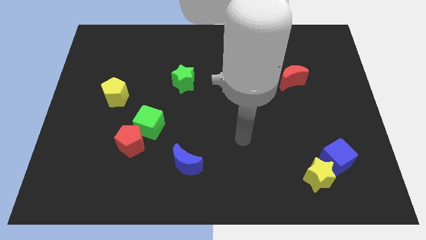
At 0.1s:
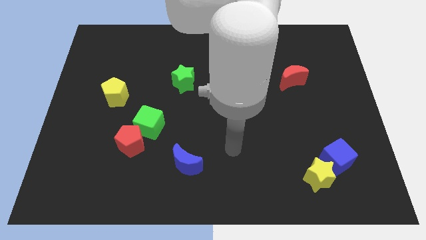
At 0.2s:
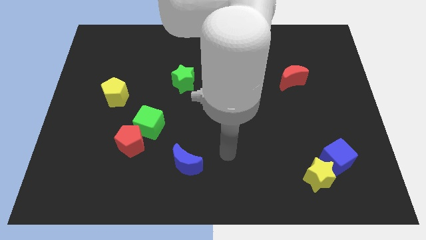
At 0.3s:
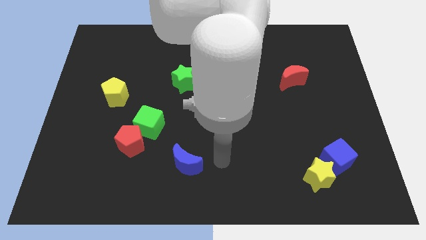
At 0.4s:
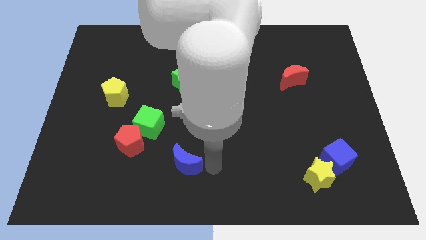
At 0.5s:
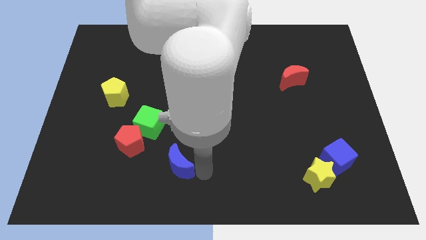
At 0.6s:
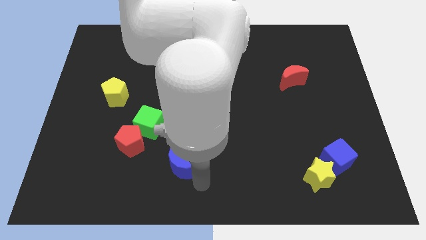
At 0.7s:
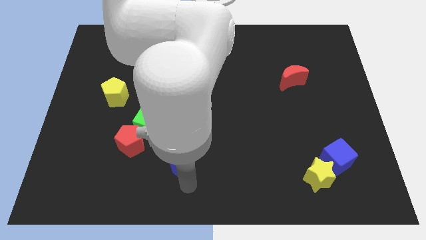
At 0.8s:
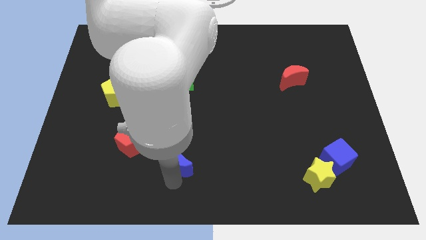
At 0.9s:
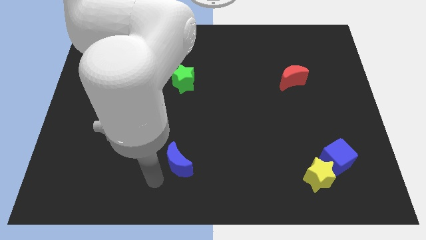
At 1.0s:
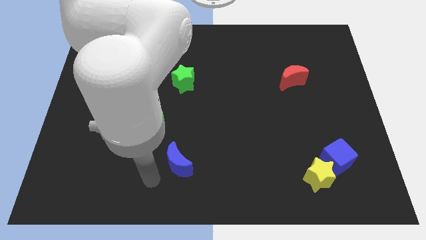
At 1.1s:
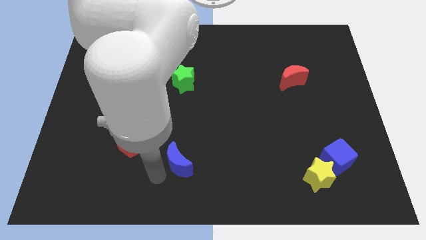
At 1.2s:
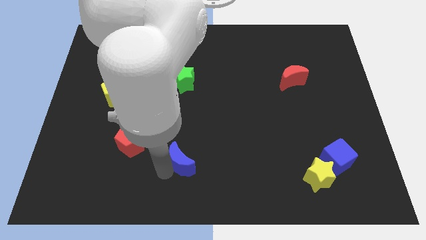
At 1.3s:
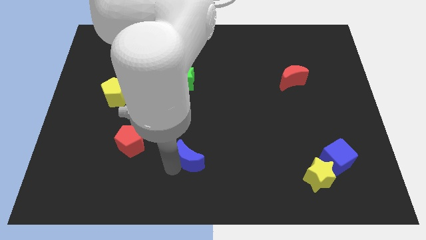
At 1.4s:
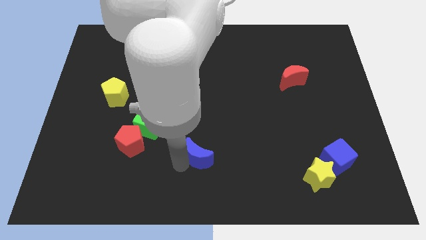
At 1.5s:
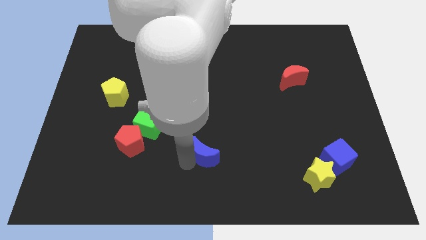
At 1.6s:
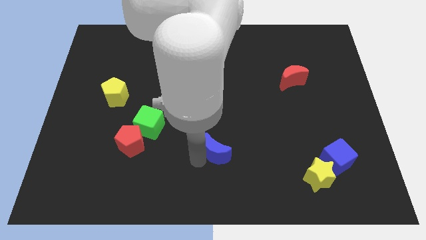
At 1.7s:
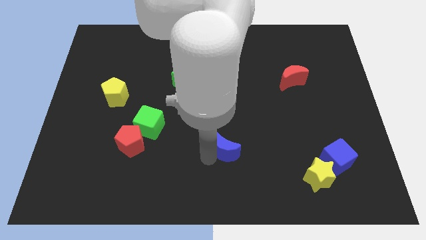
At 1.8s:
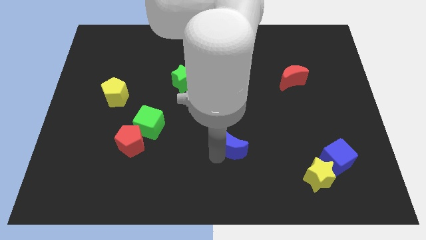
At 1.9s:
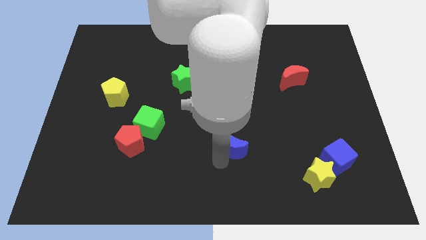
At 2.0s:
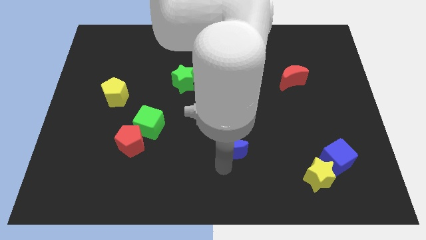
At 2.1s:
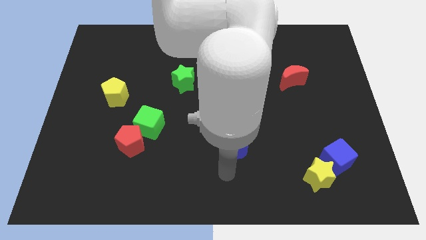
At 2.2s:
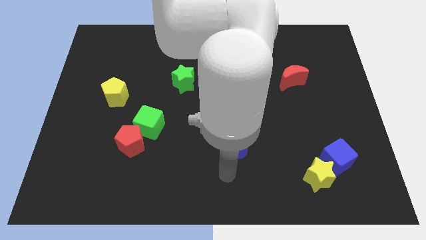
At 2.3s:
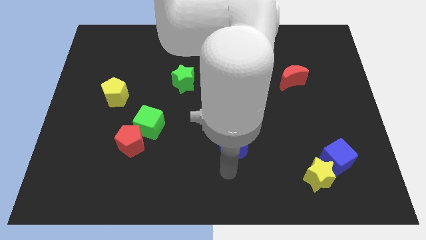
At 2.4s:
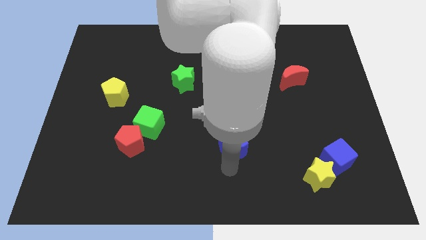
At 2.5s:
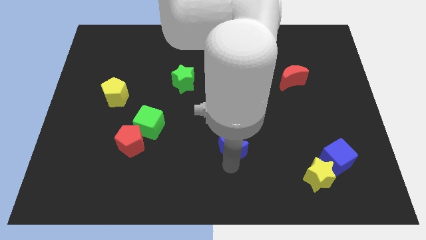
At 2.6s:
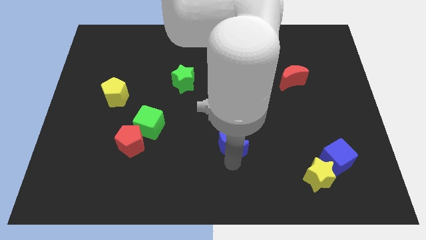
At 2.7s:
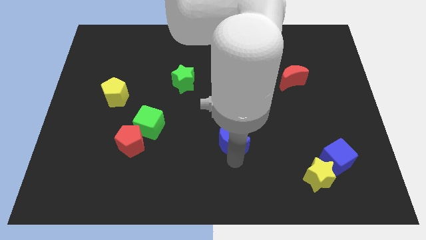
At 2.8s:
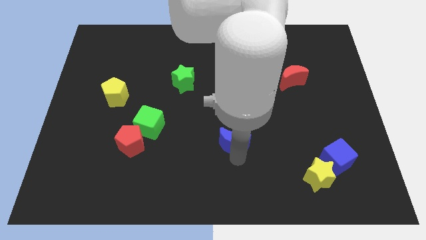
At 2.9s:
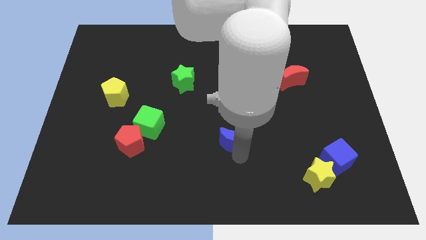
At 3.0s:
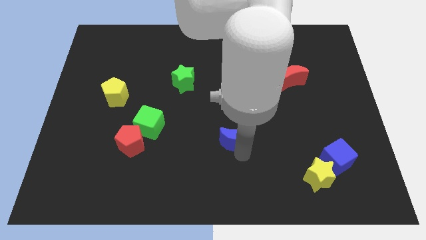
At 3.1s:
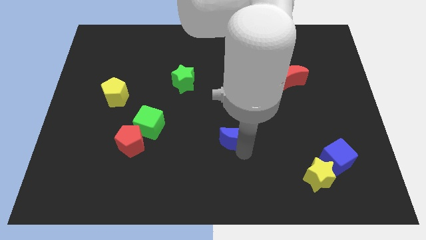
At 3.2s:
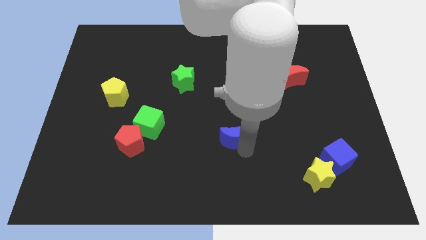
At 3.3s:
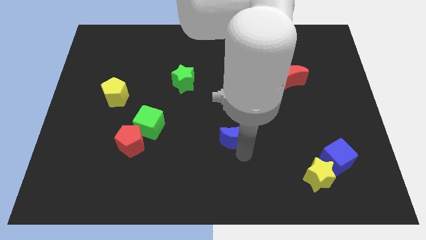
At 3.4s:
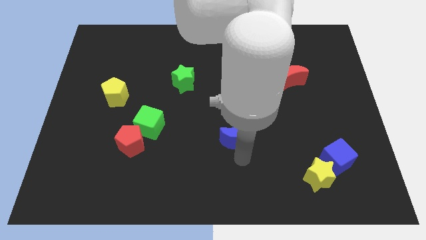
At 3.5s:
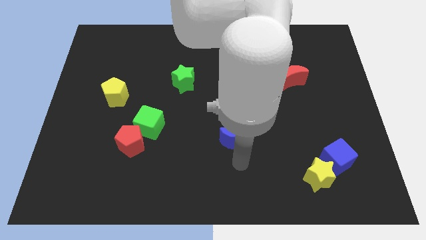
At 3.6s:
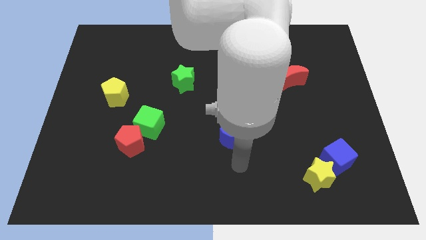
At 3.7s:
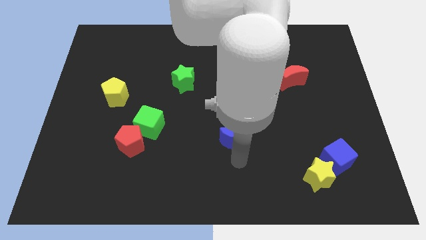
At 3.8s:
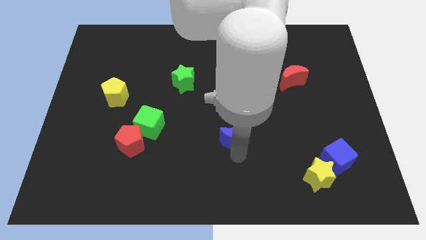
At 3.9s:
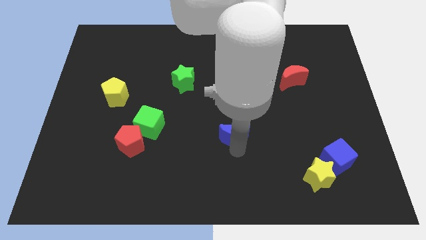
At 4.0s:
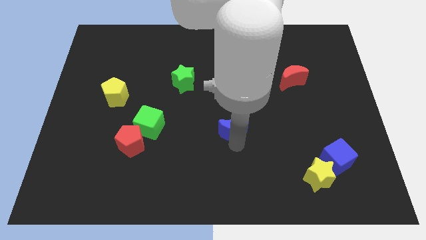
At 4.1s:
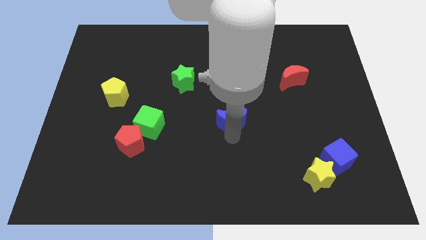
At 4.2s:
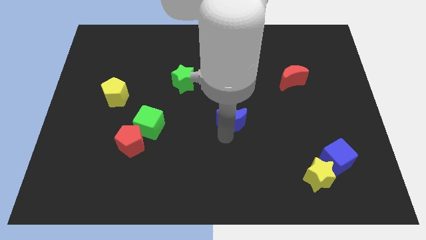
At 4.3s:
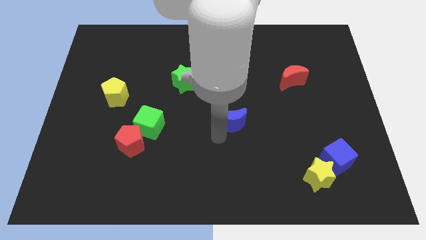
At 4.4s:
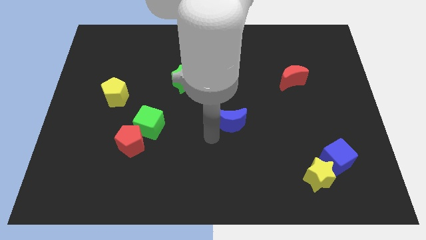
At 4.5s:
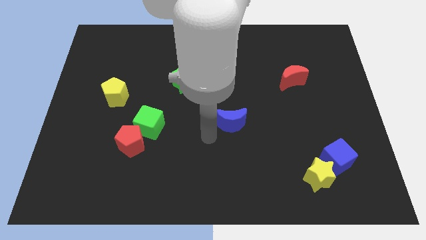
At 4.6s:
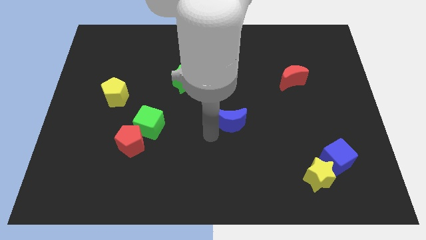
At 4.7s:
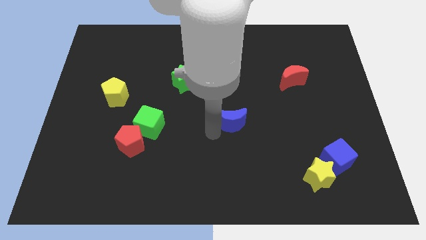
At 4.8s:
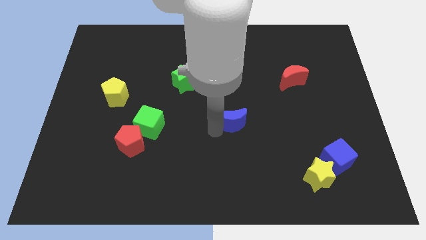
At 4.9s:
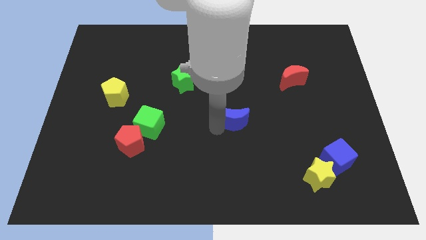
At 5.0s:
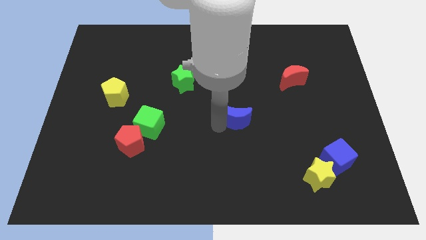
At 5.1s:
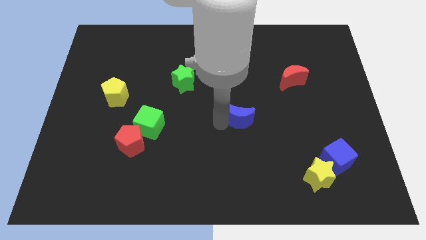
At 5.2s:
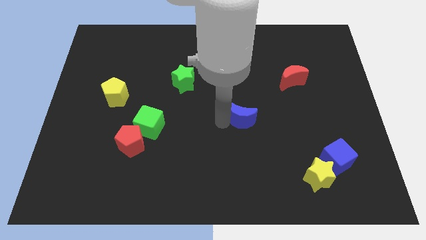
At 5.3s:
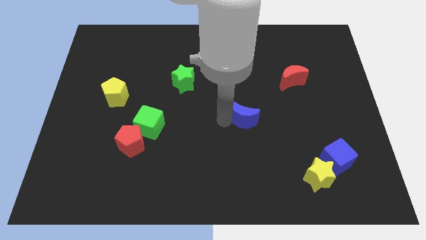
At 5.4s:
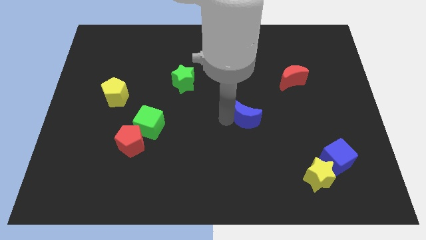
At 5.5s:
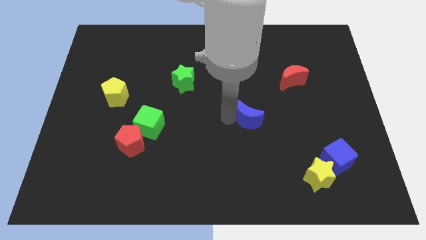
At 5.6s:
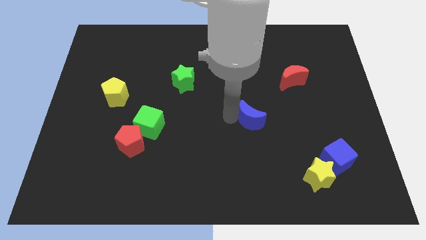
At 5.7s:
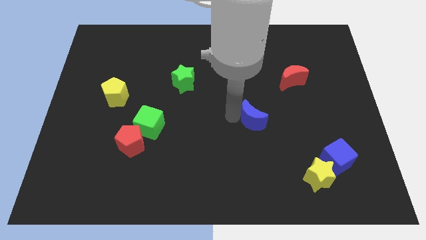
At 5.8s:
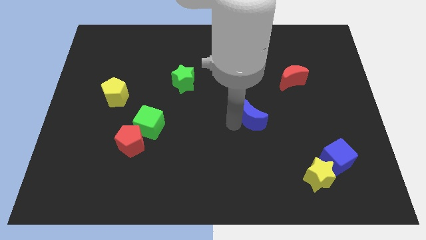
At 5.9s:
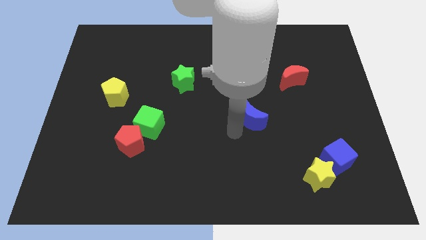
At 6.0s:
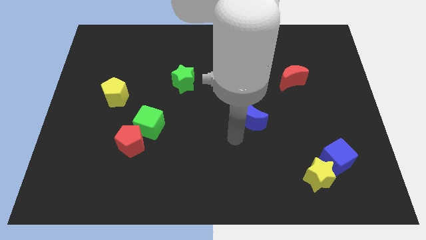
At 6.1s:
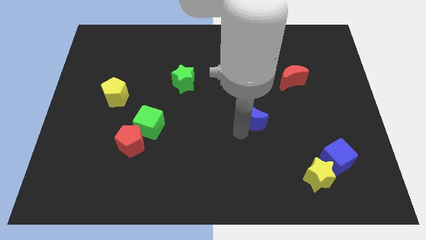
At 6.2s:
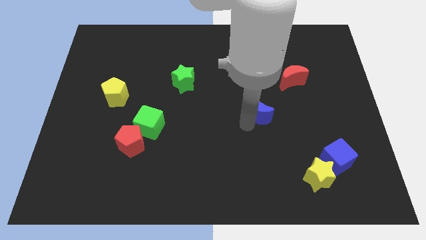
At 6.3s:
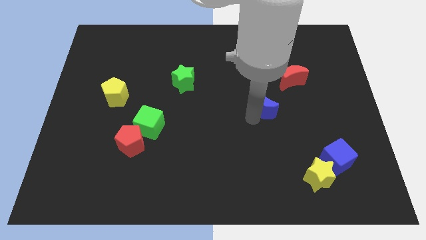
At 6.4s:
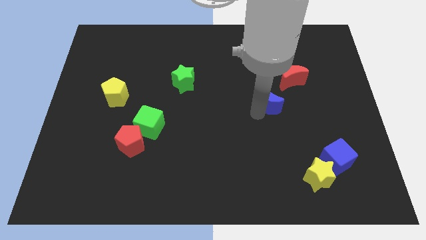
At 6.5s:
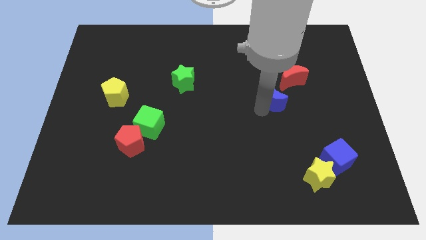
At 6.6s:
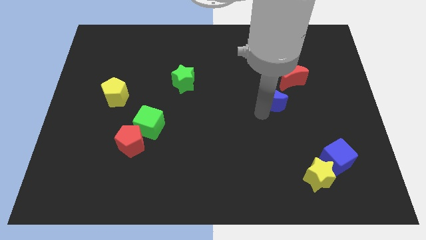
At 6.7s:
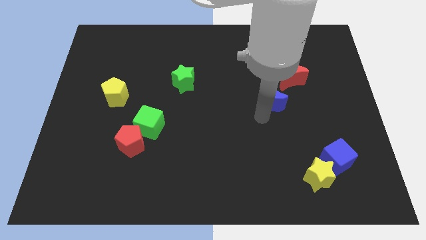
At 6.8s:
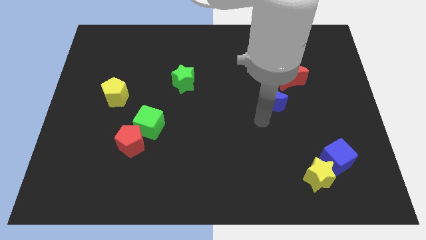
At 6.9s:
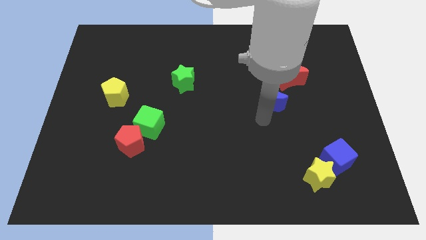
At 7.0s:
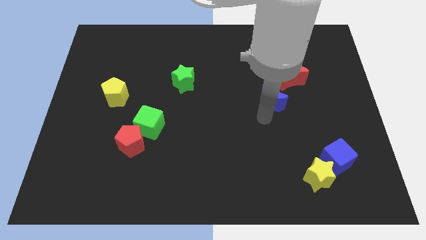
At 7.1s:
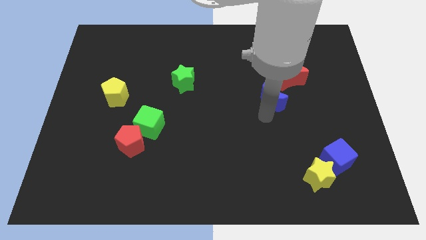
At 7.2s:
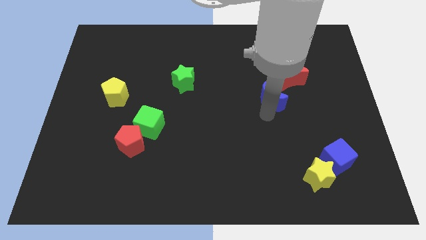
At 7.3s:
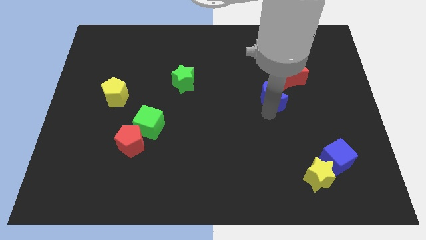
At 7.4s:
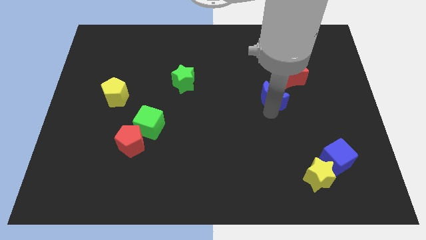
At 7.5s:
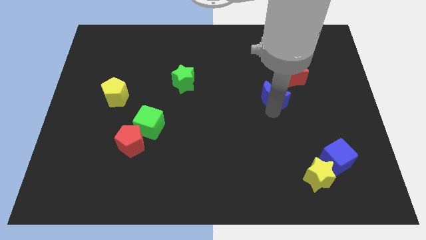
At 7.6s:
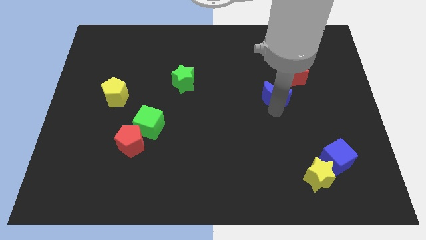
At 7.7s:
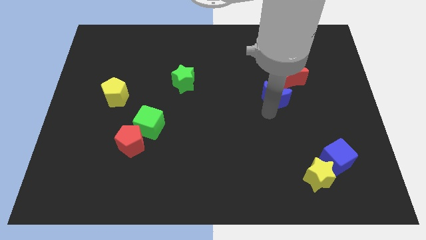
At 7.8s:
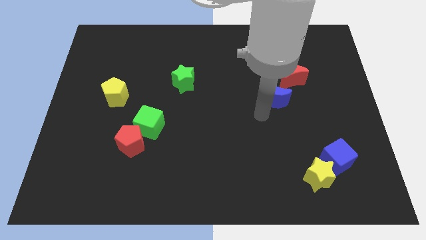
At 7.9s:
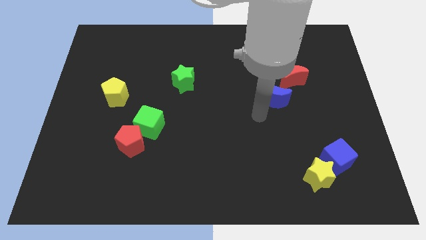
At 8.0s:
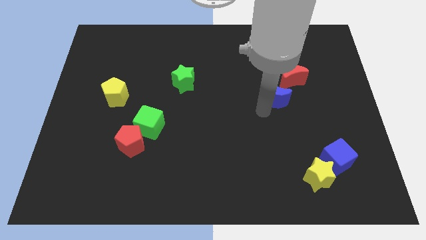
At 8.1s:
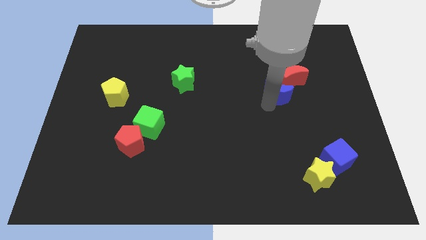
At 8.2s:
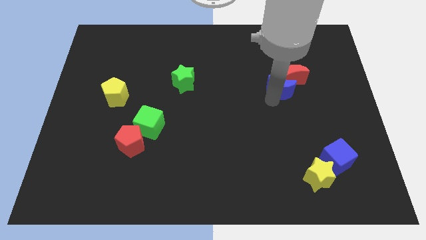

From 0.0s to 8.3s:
slide the blue moon towards the red moon

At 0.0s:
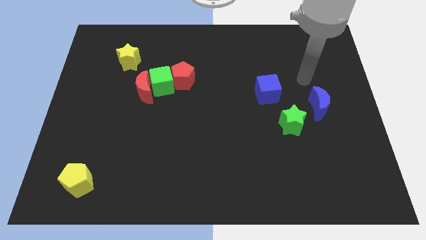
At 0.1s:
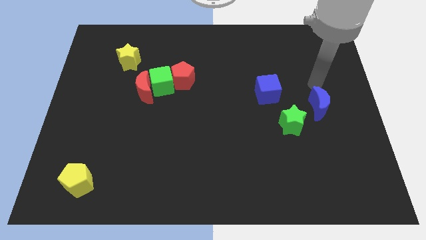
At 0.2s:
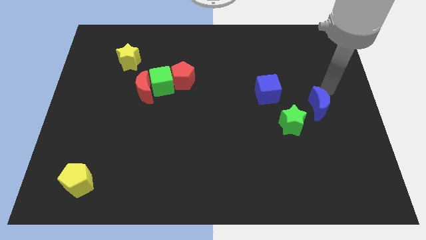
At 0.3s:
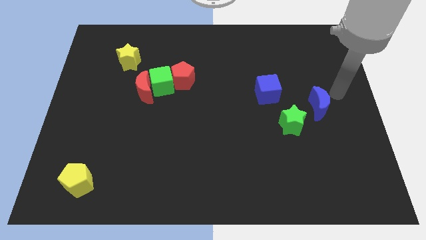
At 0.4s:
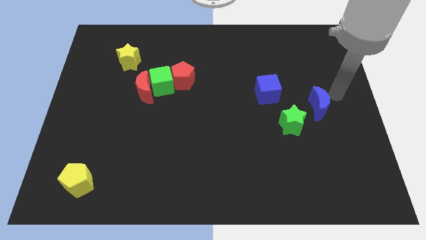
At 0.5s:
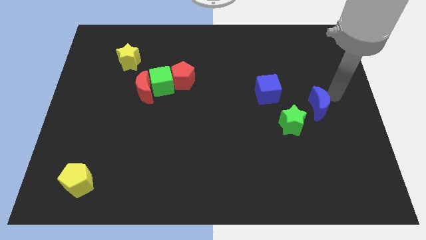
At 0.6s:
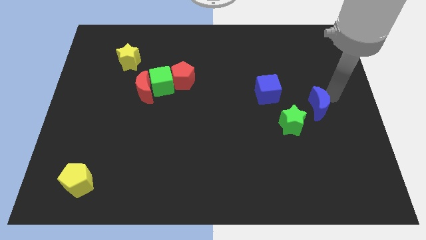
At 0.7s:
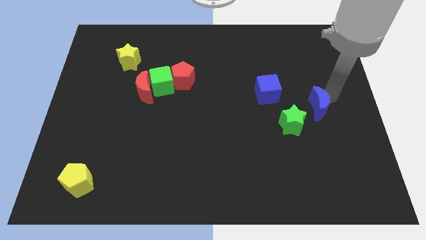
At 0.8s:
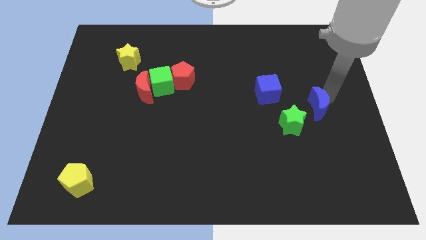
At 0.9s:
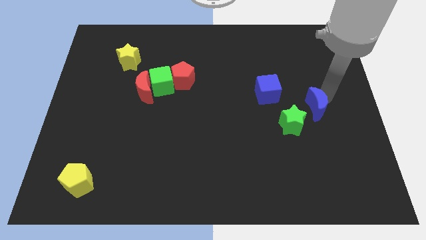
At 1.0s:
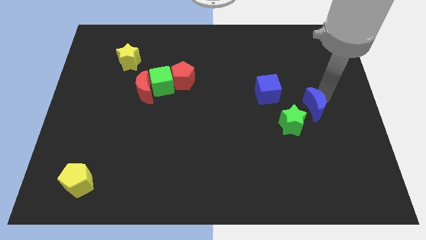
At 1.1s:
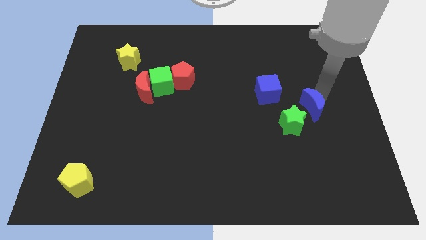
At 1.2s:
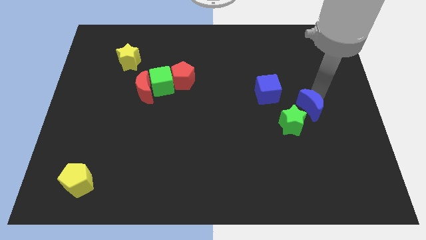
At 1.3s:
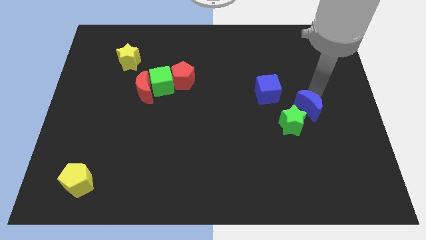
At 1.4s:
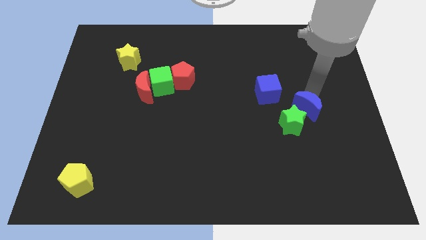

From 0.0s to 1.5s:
slide the blue moon next to the green star
